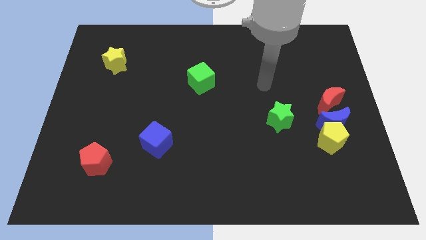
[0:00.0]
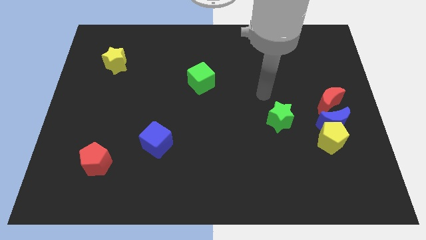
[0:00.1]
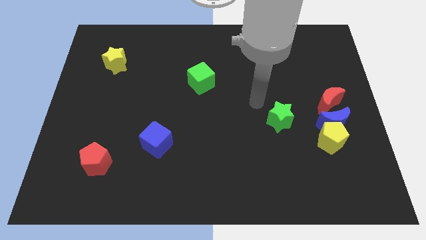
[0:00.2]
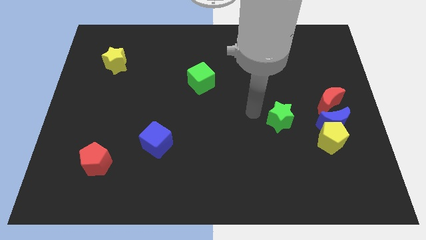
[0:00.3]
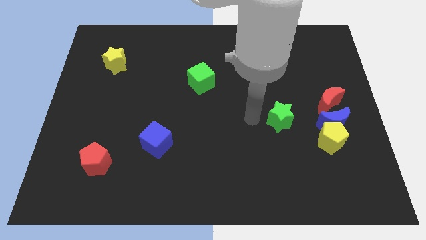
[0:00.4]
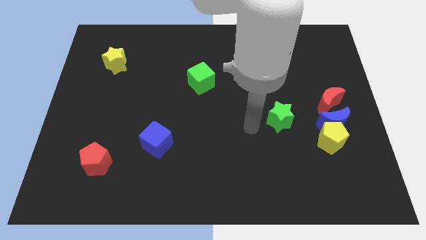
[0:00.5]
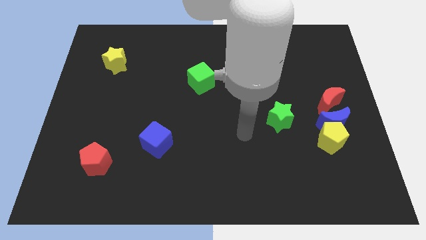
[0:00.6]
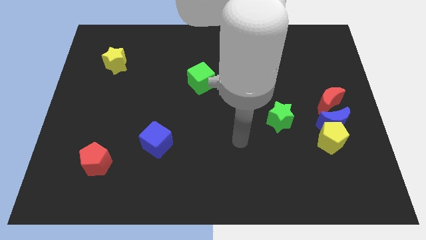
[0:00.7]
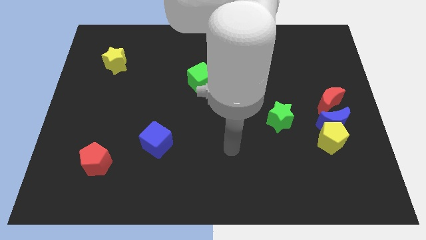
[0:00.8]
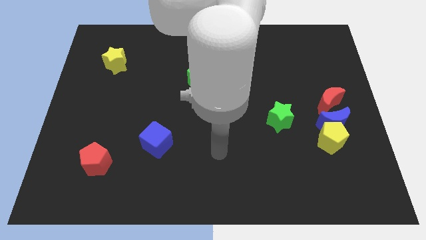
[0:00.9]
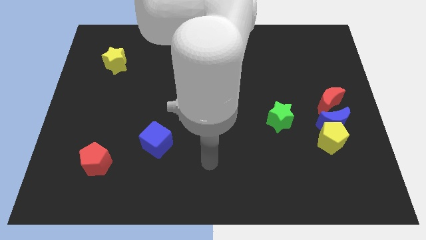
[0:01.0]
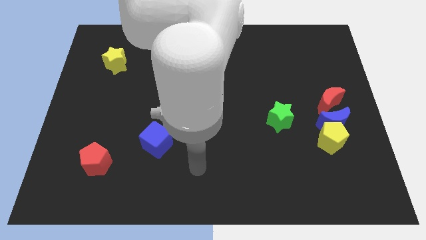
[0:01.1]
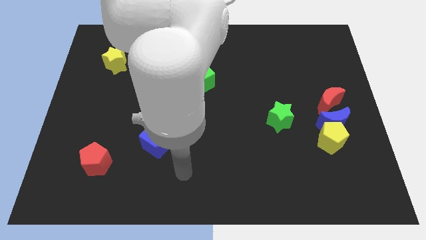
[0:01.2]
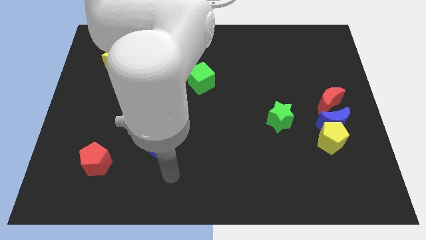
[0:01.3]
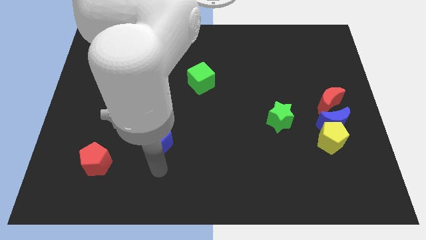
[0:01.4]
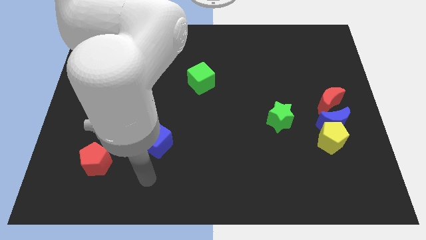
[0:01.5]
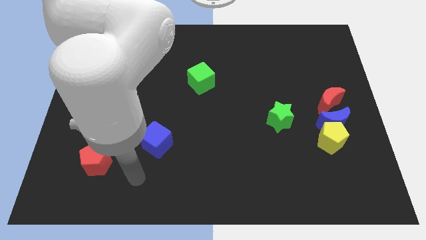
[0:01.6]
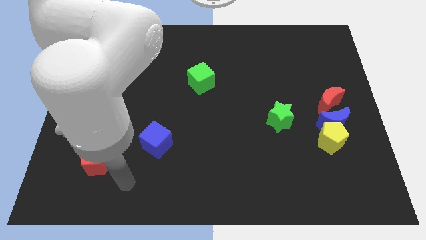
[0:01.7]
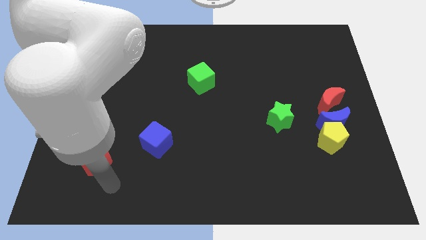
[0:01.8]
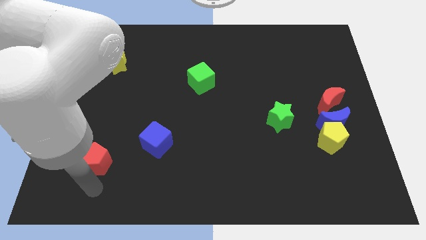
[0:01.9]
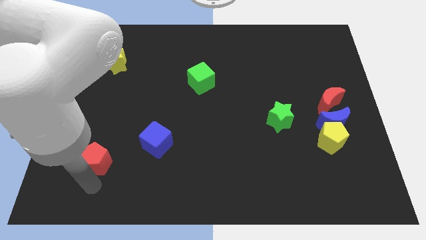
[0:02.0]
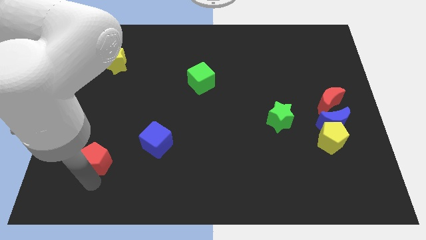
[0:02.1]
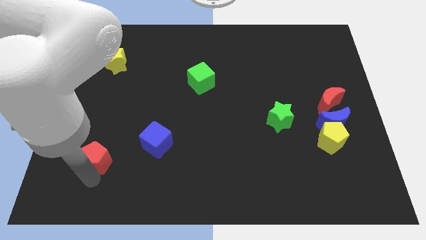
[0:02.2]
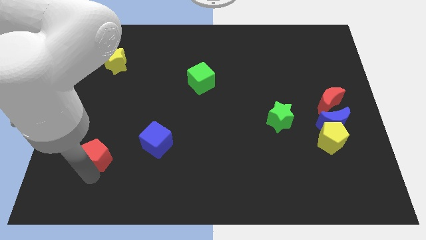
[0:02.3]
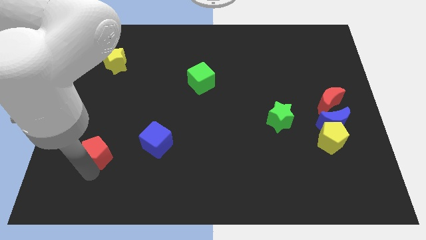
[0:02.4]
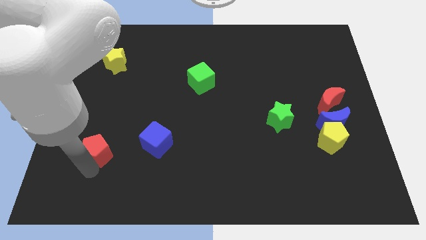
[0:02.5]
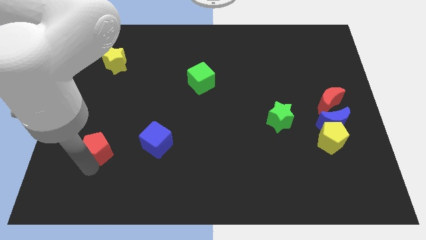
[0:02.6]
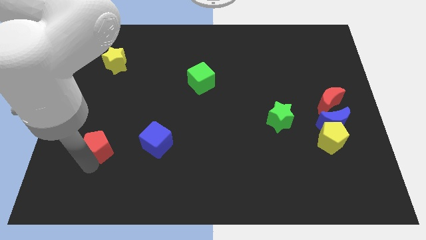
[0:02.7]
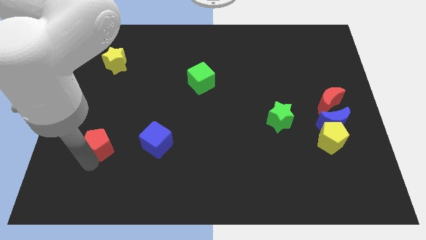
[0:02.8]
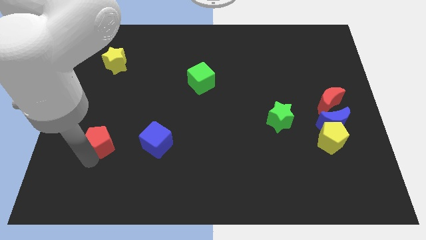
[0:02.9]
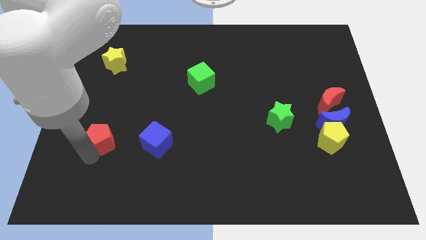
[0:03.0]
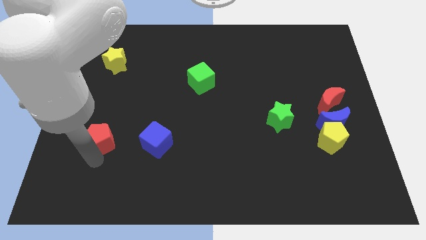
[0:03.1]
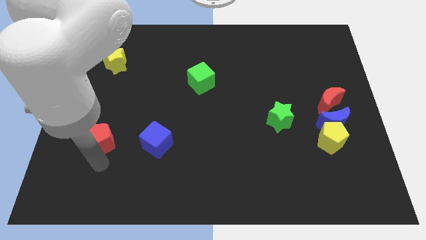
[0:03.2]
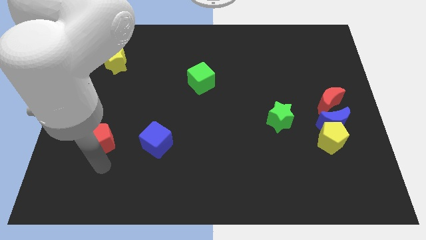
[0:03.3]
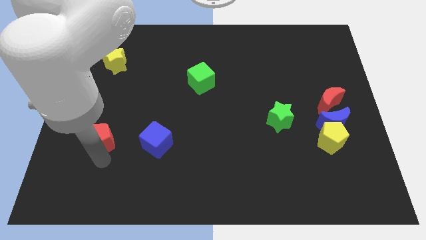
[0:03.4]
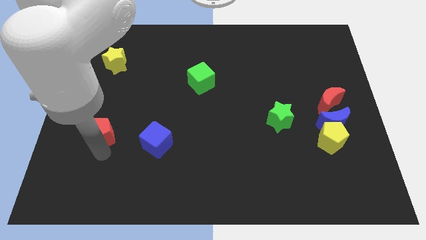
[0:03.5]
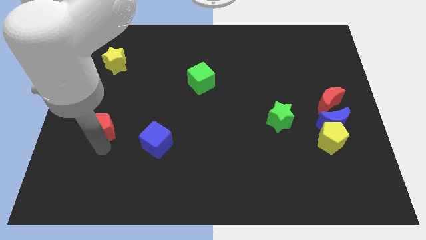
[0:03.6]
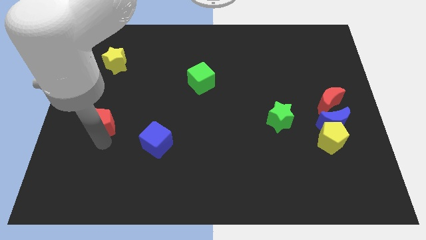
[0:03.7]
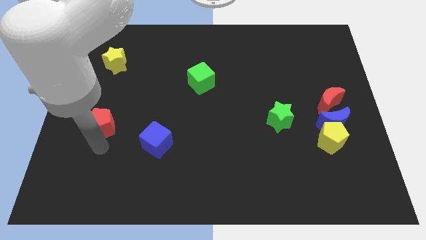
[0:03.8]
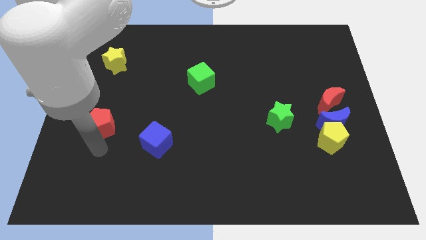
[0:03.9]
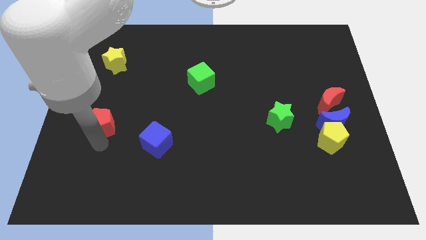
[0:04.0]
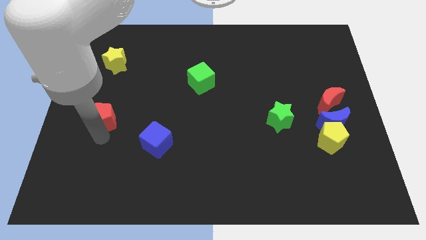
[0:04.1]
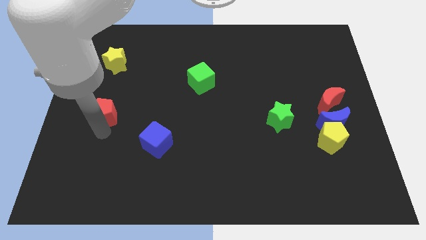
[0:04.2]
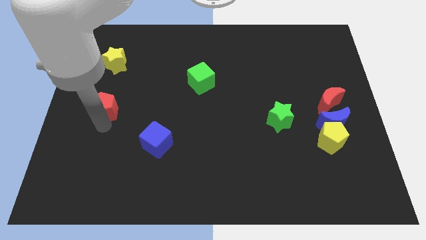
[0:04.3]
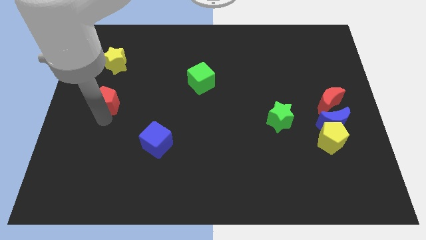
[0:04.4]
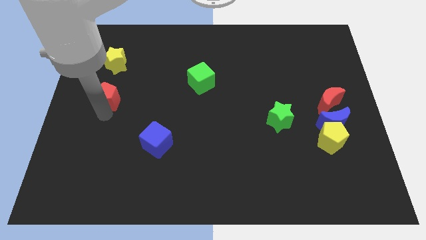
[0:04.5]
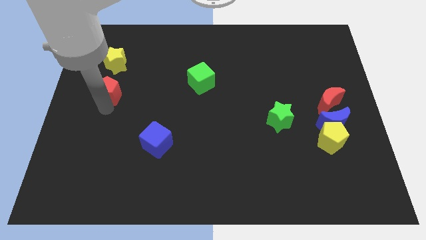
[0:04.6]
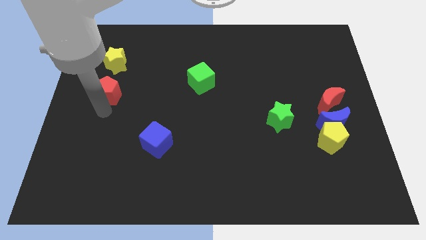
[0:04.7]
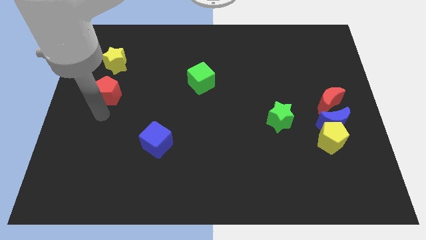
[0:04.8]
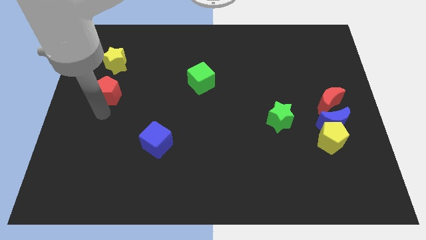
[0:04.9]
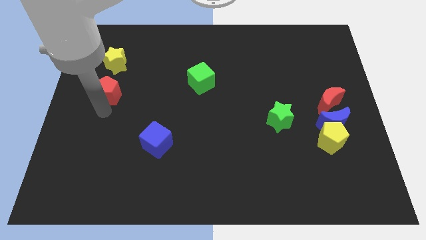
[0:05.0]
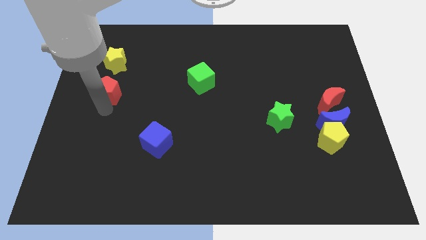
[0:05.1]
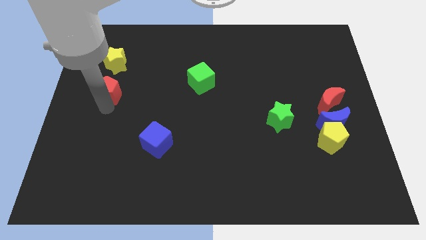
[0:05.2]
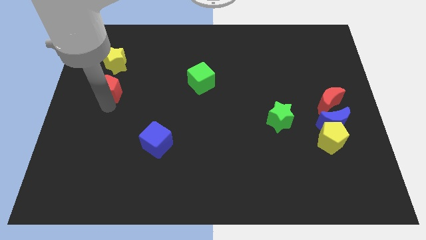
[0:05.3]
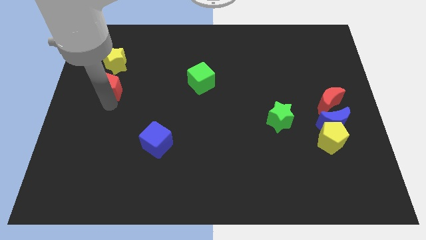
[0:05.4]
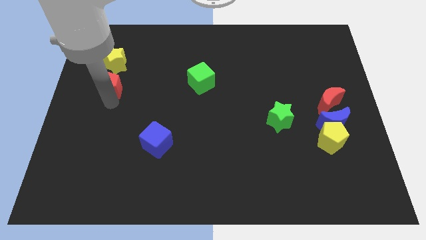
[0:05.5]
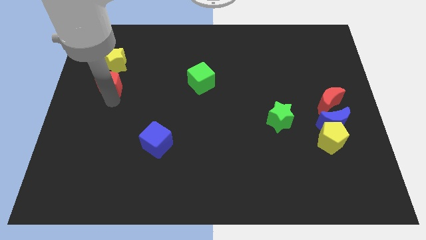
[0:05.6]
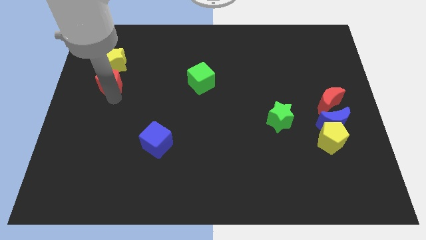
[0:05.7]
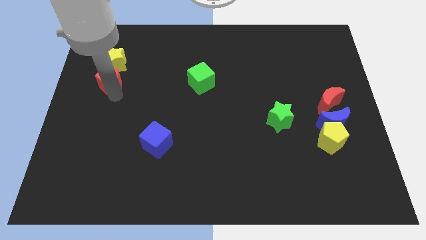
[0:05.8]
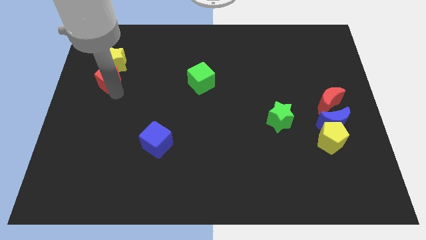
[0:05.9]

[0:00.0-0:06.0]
put the red pentagon to the yellow star

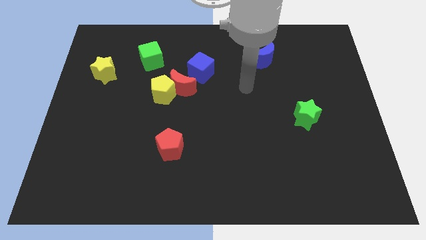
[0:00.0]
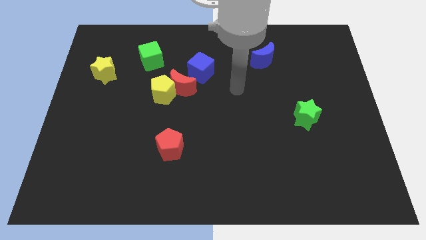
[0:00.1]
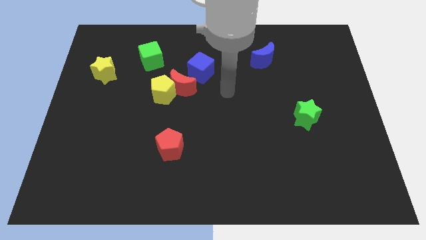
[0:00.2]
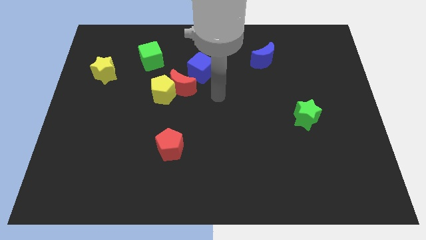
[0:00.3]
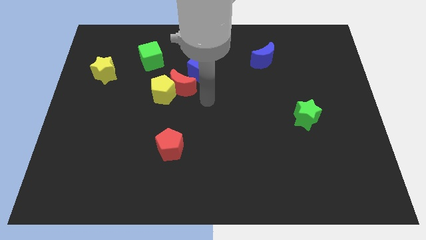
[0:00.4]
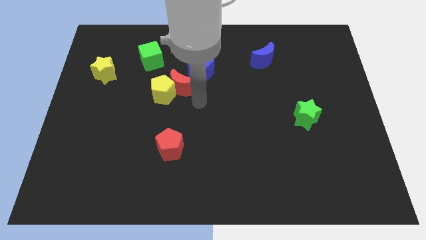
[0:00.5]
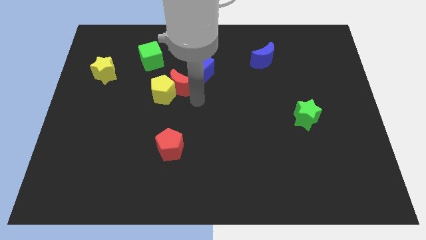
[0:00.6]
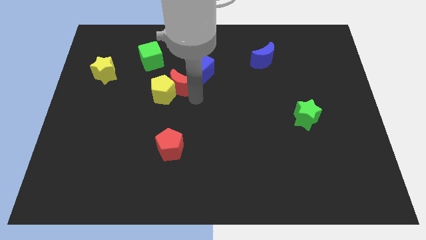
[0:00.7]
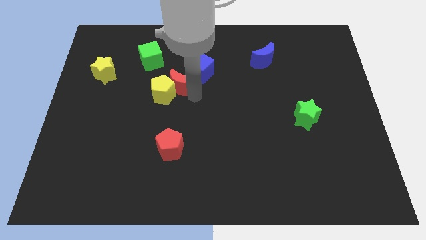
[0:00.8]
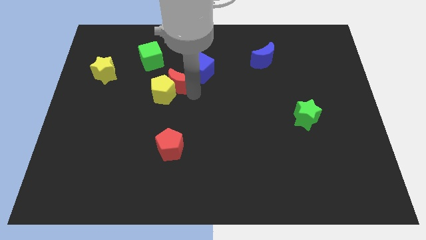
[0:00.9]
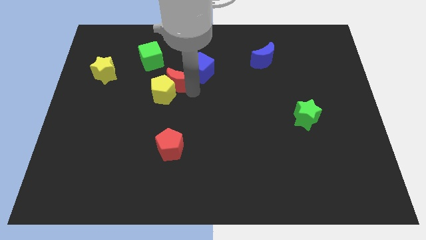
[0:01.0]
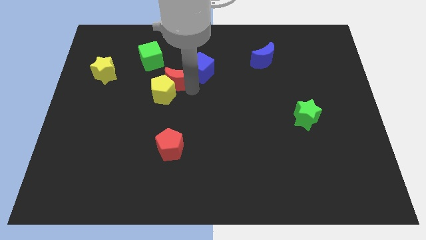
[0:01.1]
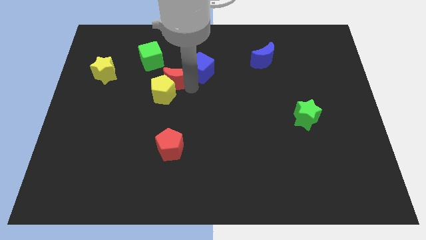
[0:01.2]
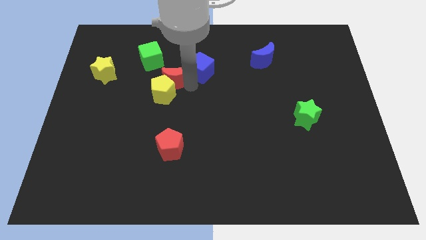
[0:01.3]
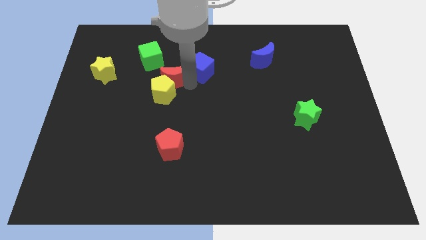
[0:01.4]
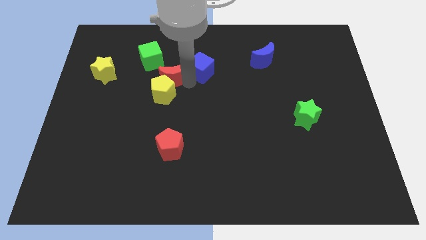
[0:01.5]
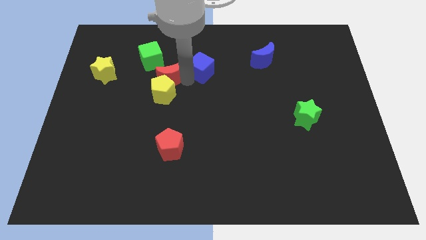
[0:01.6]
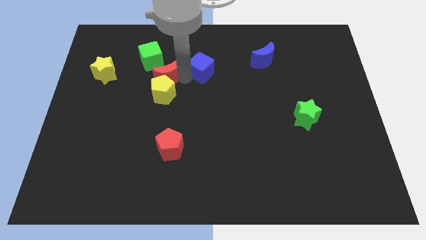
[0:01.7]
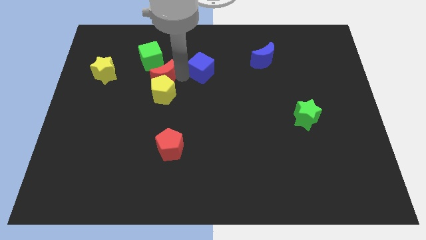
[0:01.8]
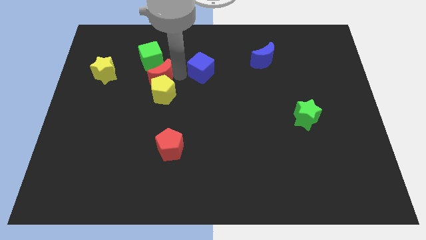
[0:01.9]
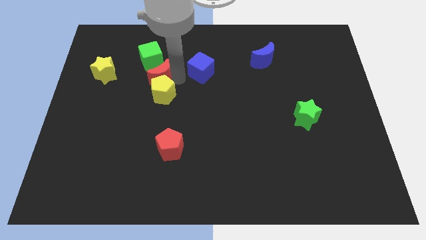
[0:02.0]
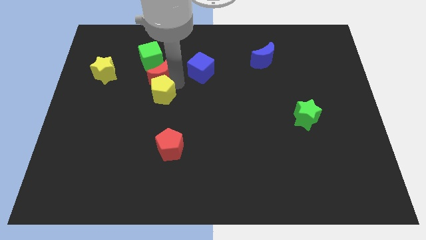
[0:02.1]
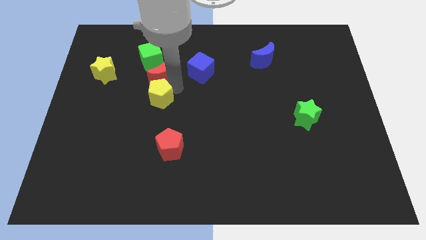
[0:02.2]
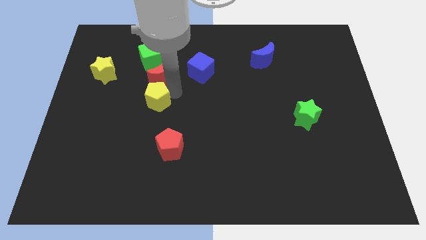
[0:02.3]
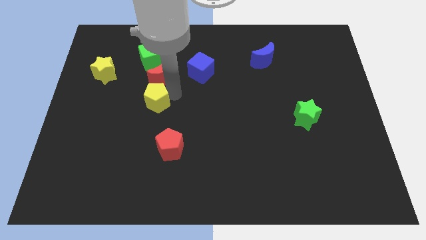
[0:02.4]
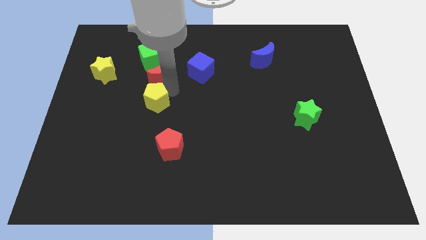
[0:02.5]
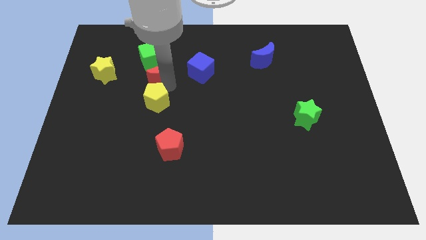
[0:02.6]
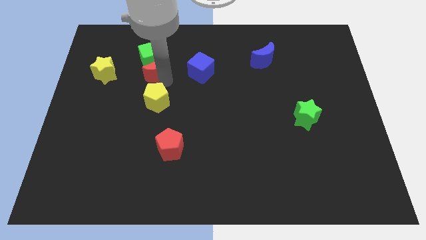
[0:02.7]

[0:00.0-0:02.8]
push the red moon close to the green cube
